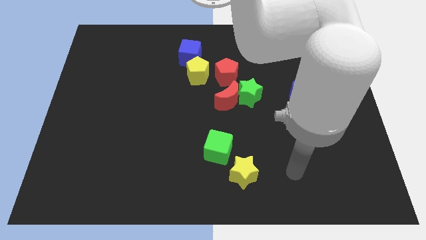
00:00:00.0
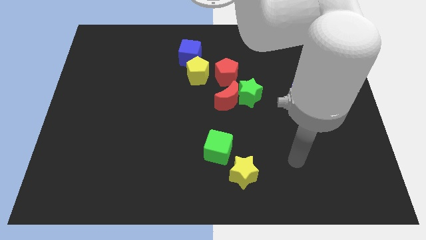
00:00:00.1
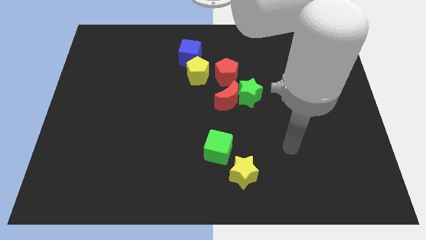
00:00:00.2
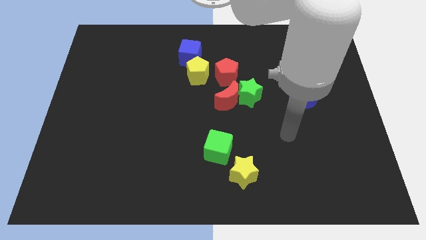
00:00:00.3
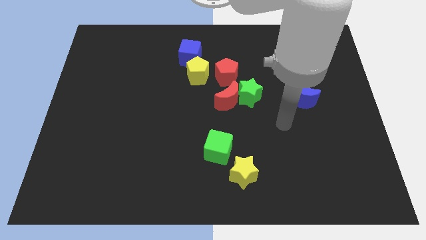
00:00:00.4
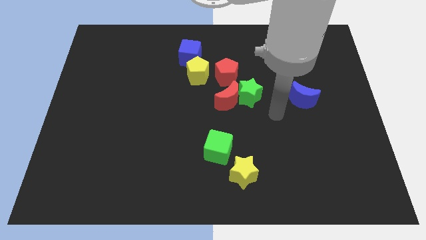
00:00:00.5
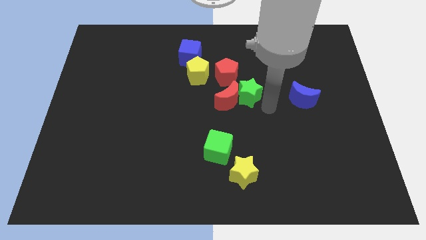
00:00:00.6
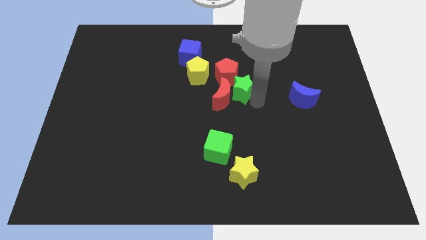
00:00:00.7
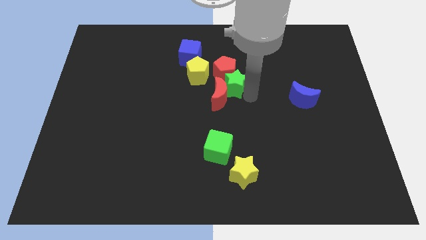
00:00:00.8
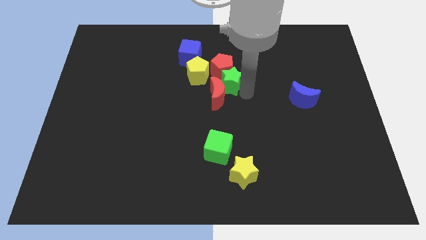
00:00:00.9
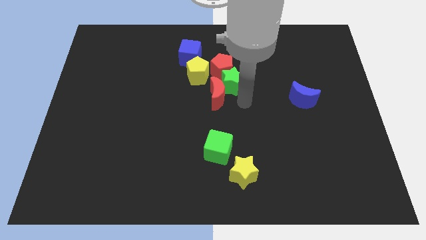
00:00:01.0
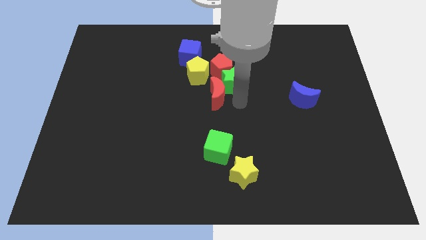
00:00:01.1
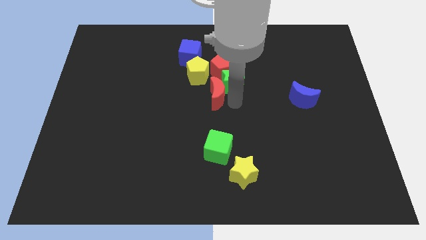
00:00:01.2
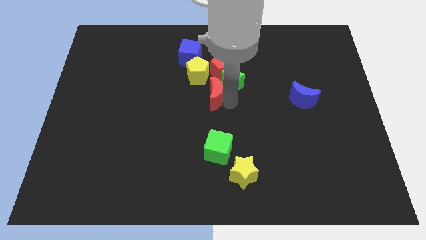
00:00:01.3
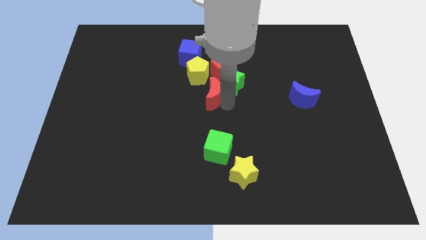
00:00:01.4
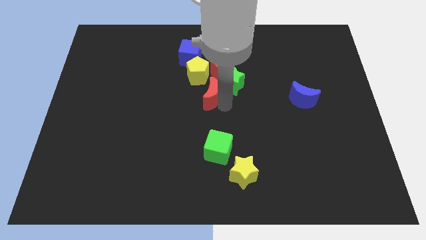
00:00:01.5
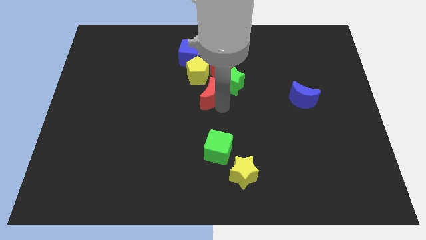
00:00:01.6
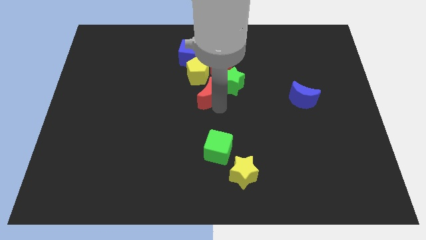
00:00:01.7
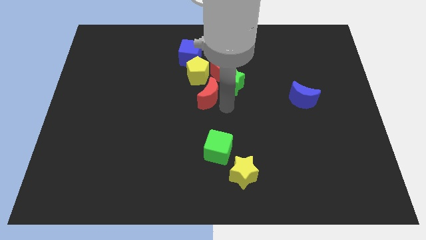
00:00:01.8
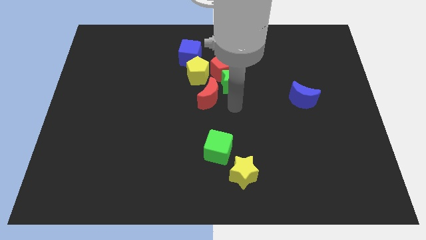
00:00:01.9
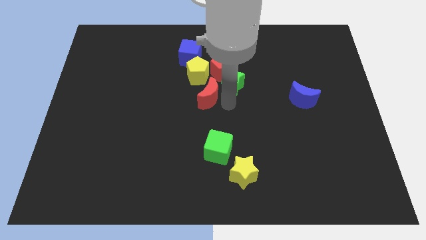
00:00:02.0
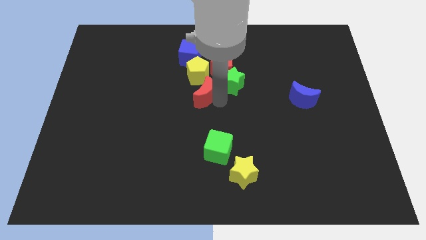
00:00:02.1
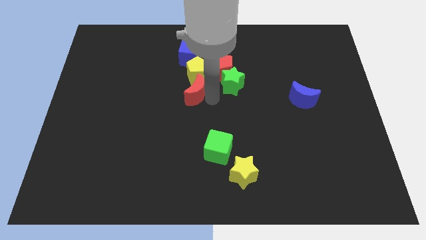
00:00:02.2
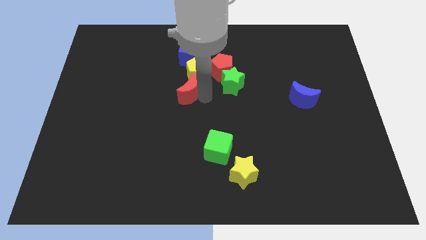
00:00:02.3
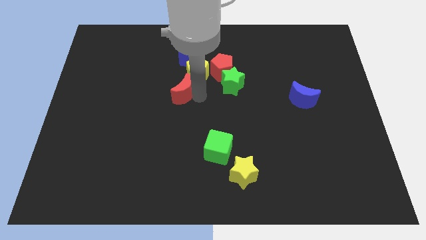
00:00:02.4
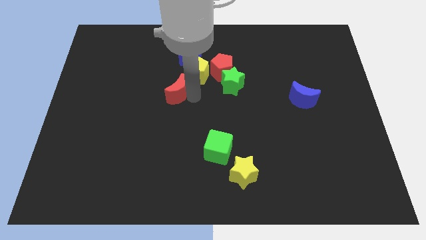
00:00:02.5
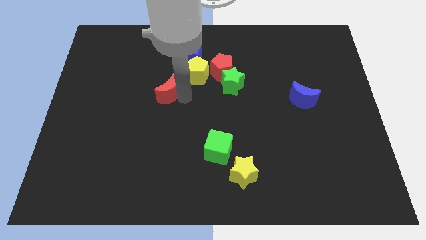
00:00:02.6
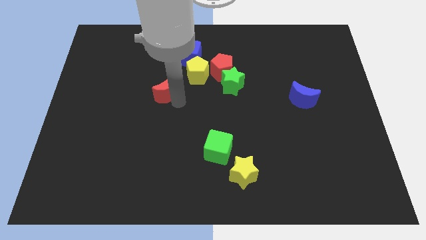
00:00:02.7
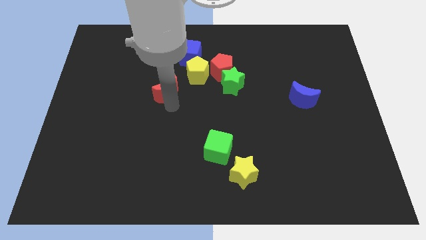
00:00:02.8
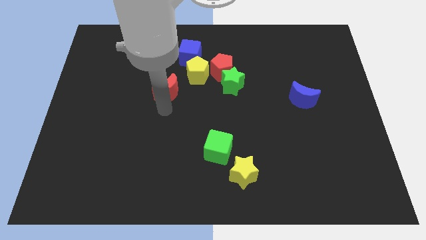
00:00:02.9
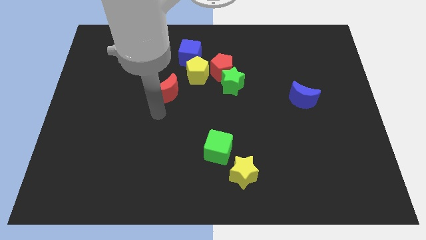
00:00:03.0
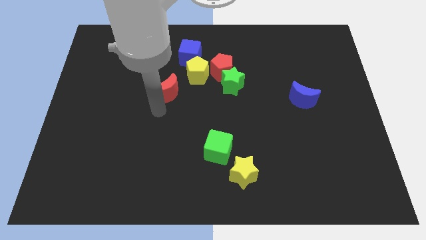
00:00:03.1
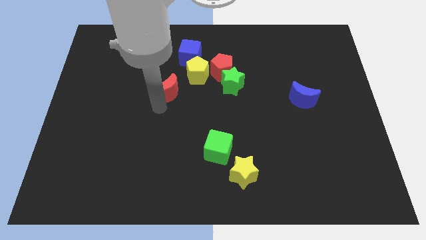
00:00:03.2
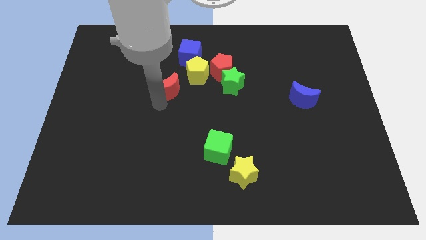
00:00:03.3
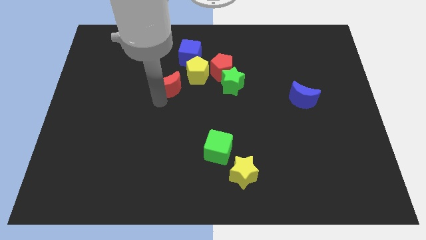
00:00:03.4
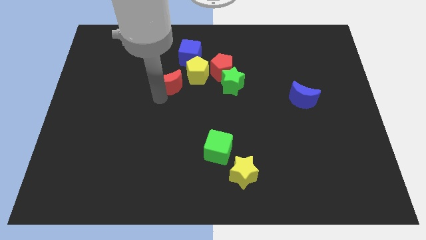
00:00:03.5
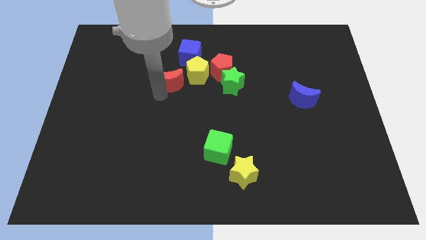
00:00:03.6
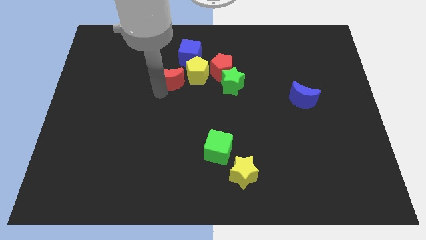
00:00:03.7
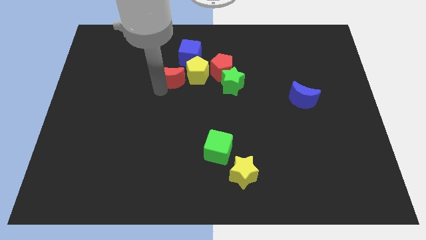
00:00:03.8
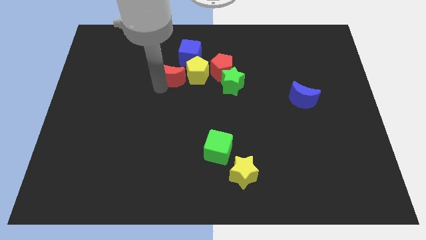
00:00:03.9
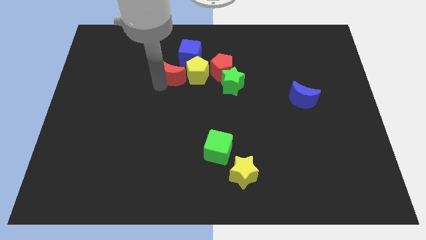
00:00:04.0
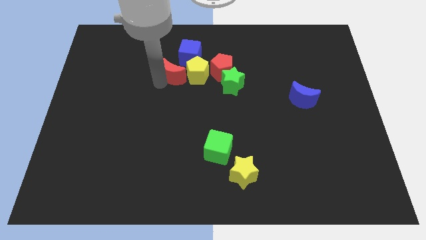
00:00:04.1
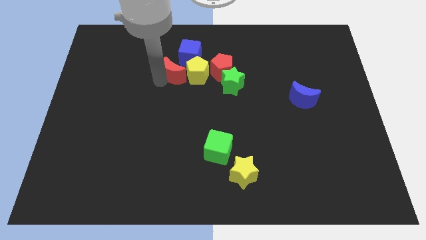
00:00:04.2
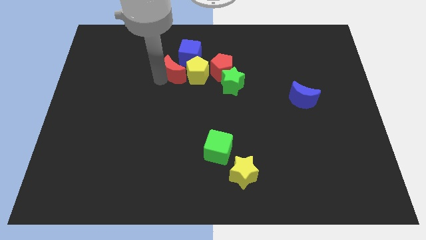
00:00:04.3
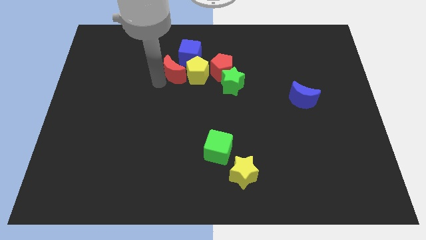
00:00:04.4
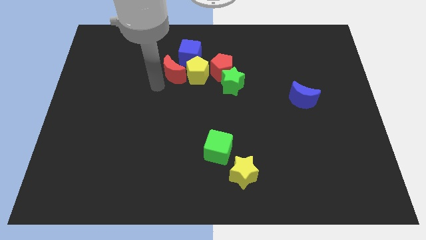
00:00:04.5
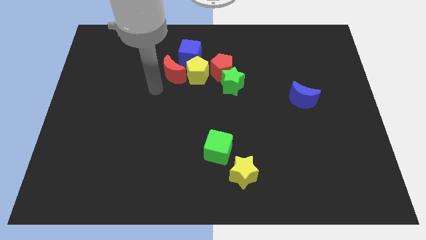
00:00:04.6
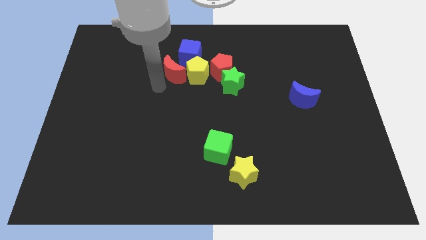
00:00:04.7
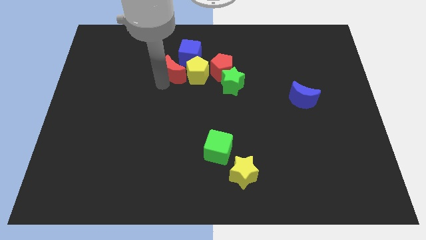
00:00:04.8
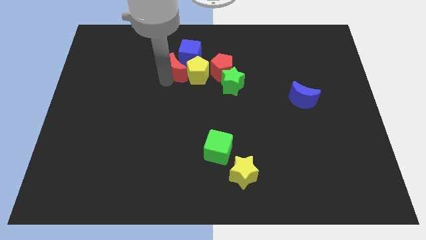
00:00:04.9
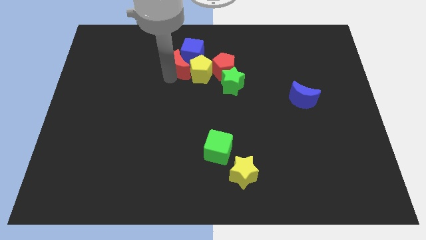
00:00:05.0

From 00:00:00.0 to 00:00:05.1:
put the red moon to the blue cube

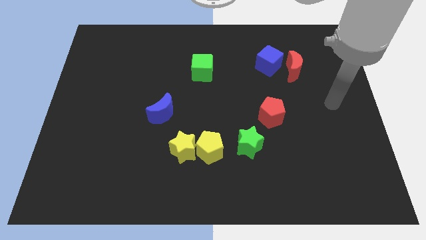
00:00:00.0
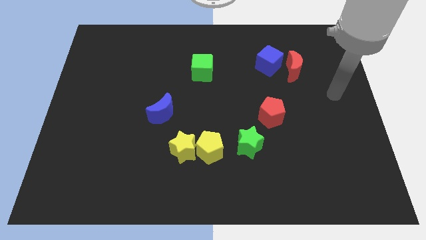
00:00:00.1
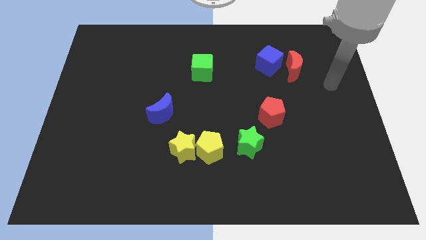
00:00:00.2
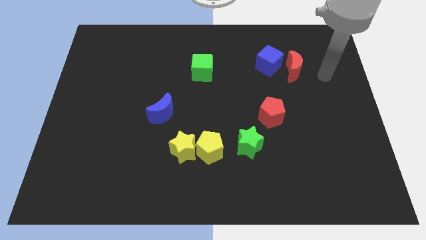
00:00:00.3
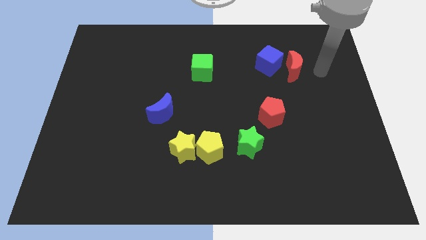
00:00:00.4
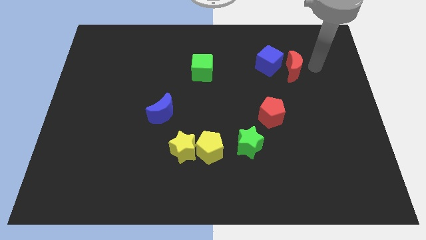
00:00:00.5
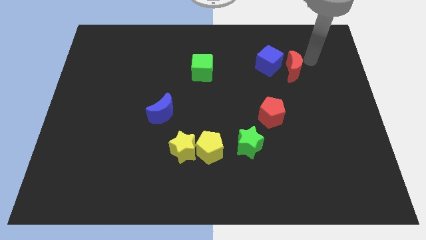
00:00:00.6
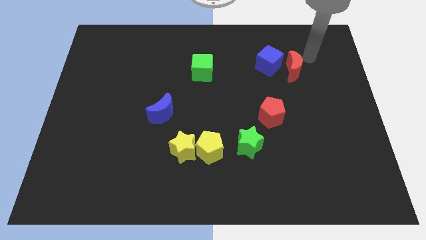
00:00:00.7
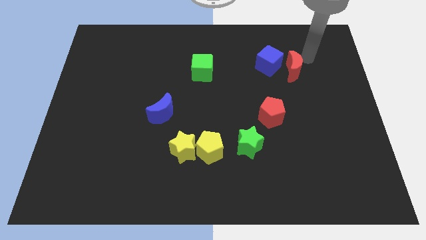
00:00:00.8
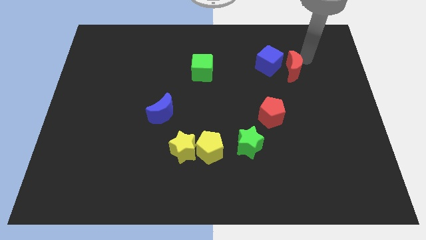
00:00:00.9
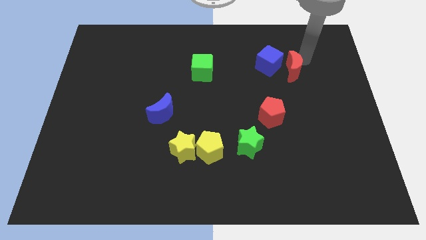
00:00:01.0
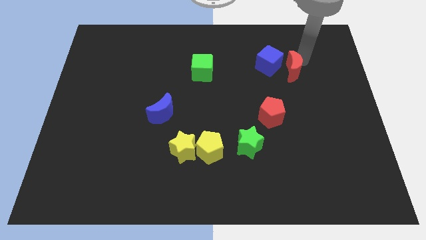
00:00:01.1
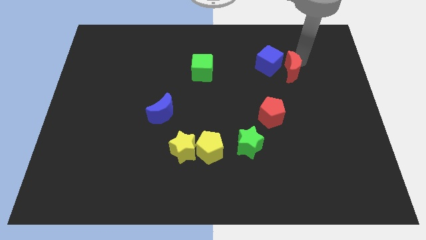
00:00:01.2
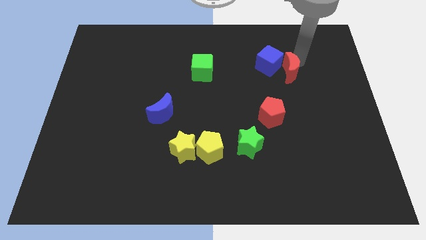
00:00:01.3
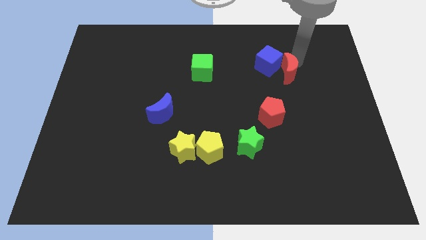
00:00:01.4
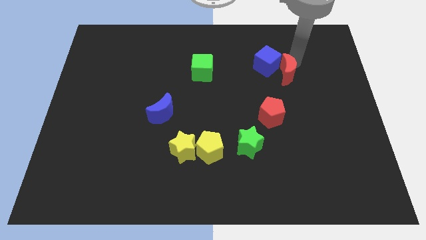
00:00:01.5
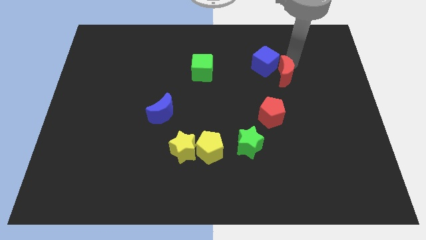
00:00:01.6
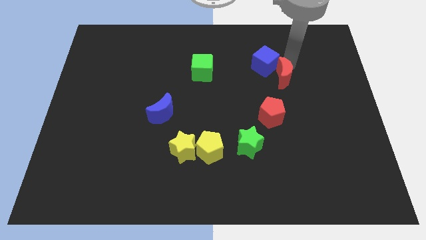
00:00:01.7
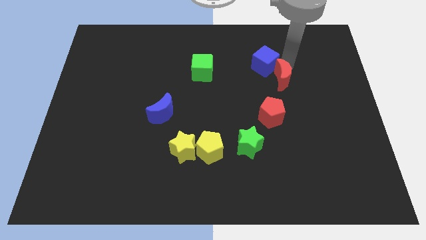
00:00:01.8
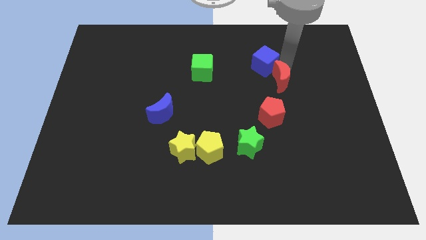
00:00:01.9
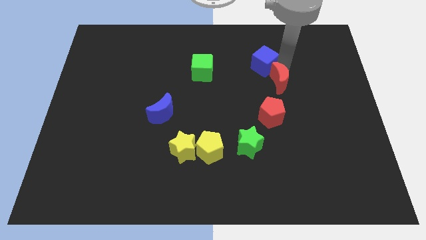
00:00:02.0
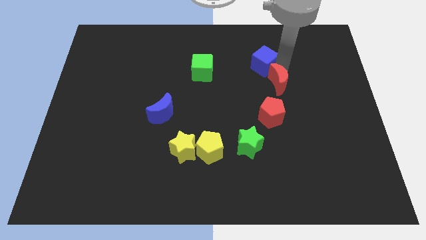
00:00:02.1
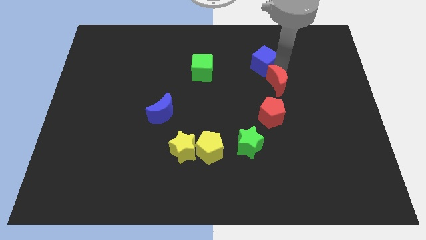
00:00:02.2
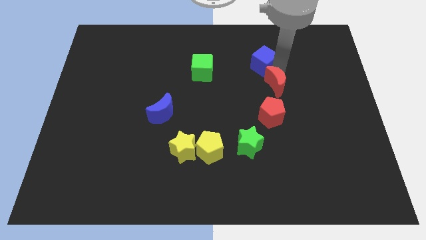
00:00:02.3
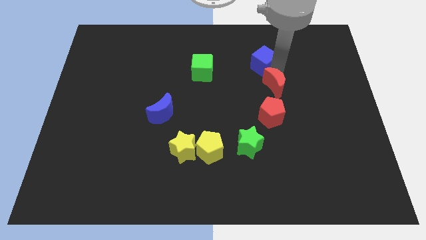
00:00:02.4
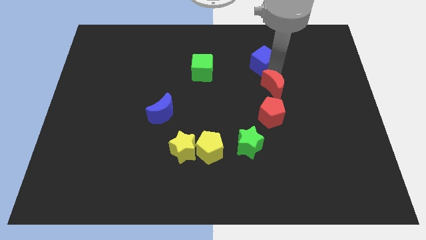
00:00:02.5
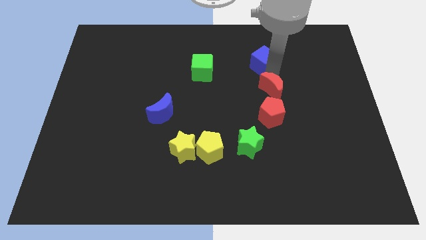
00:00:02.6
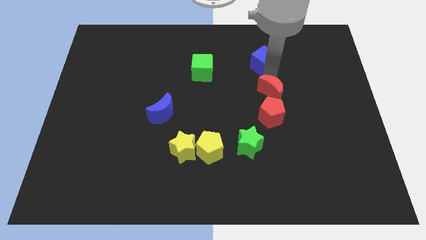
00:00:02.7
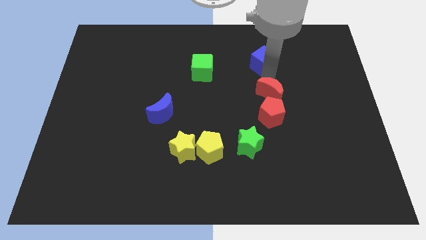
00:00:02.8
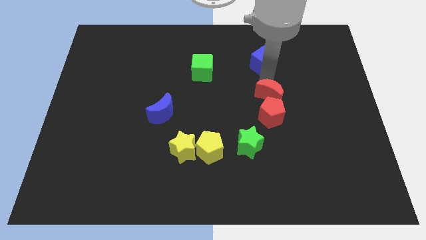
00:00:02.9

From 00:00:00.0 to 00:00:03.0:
move the red moon to the red pentagon
